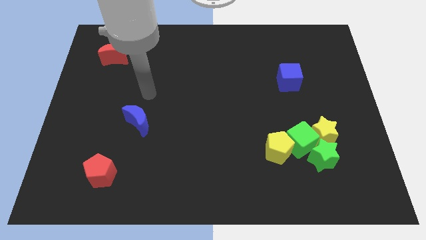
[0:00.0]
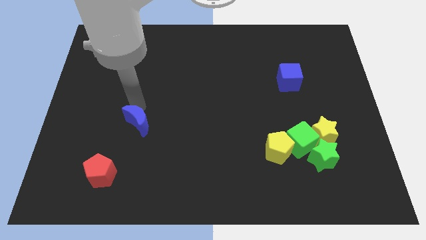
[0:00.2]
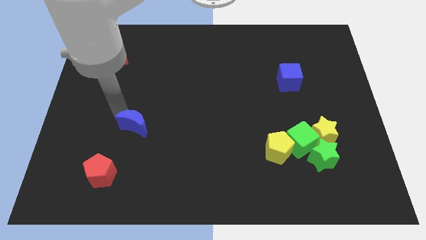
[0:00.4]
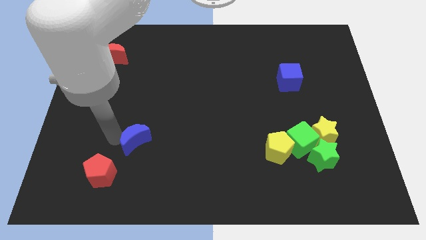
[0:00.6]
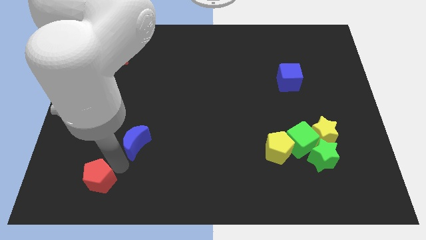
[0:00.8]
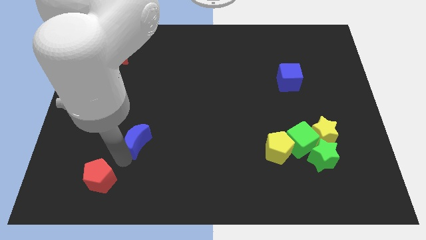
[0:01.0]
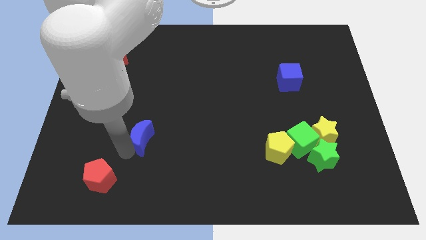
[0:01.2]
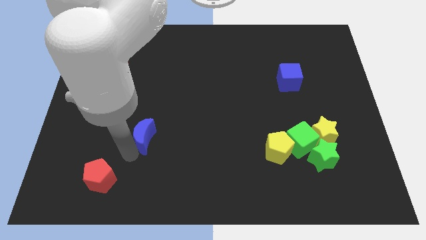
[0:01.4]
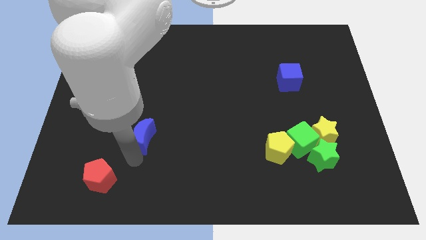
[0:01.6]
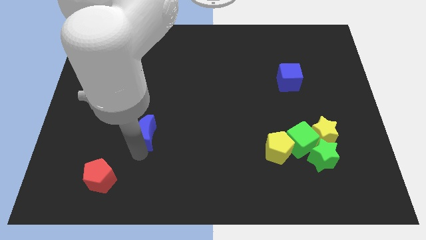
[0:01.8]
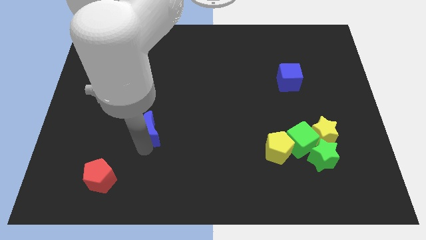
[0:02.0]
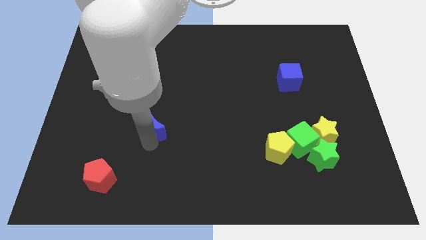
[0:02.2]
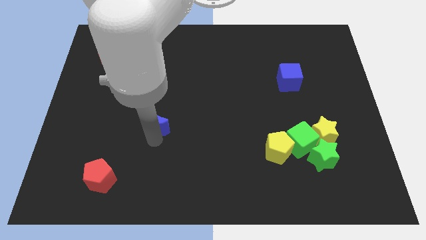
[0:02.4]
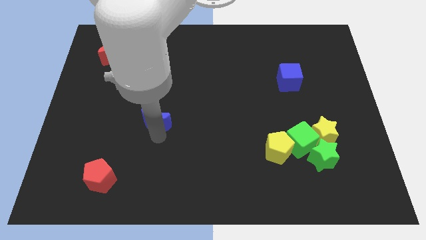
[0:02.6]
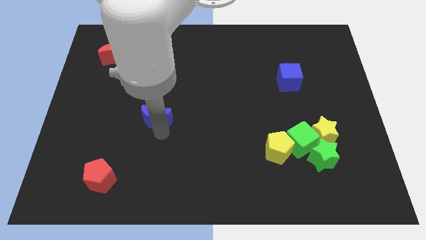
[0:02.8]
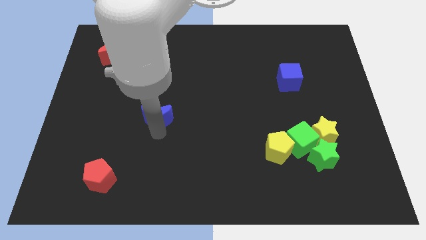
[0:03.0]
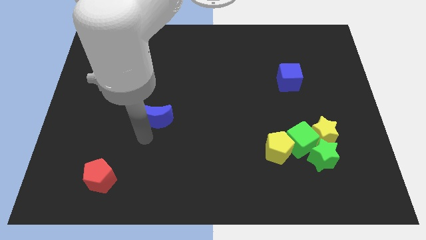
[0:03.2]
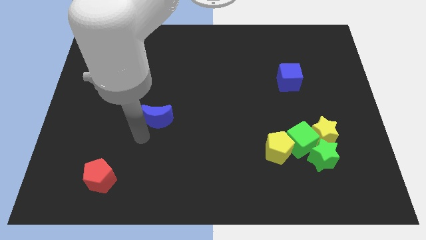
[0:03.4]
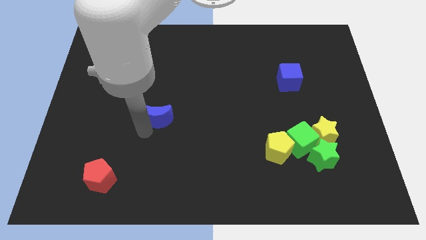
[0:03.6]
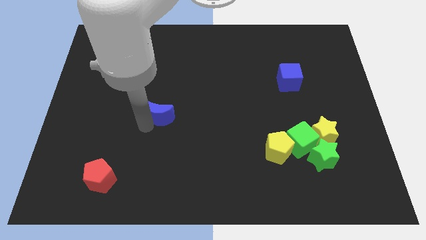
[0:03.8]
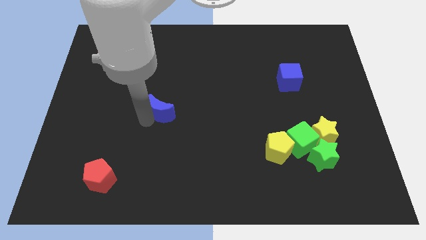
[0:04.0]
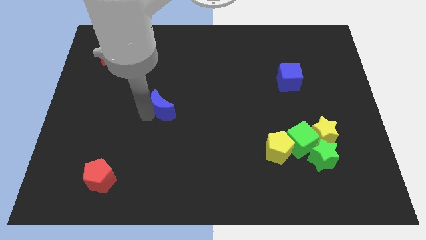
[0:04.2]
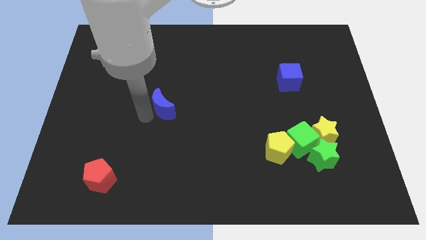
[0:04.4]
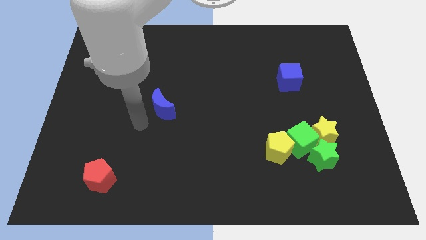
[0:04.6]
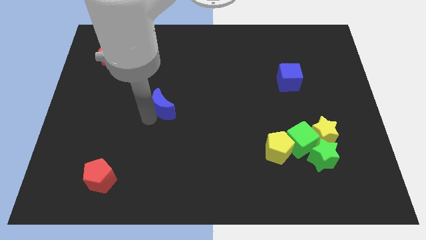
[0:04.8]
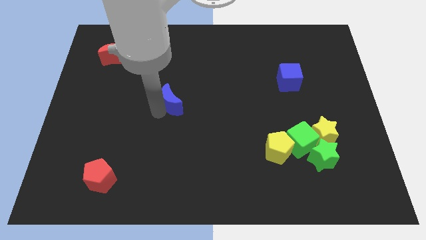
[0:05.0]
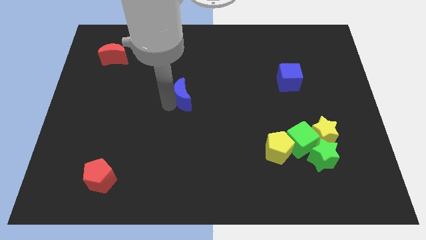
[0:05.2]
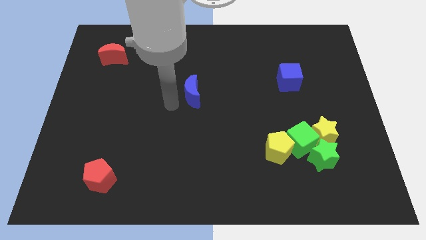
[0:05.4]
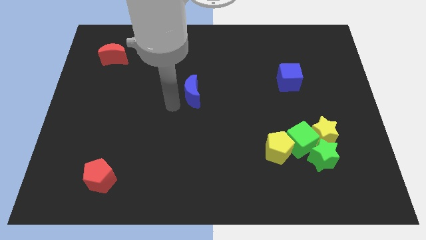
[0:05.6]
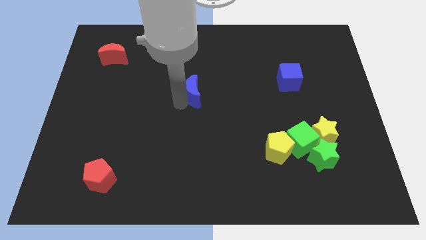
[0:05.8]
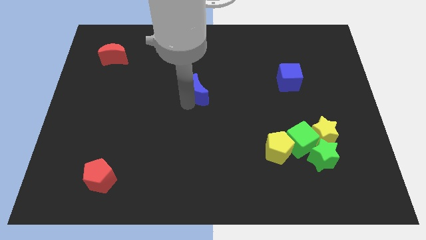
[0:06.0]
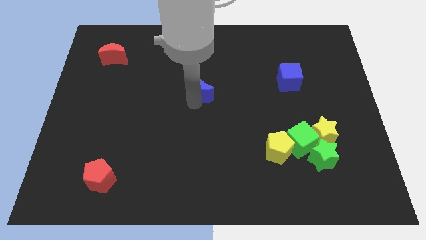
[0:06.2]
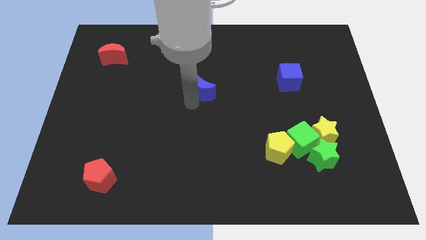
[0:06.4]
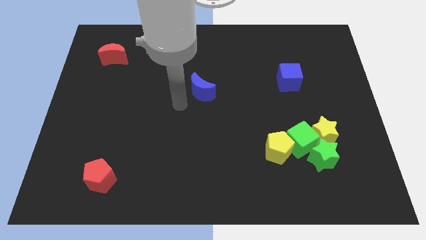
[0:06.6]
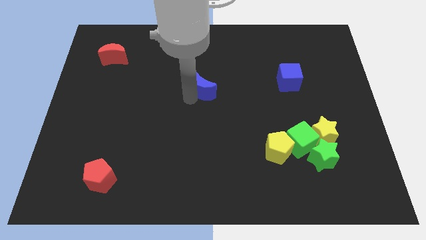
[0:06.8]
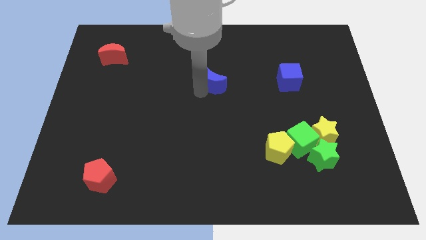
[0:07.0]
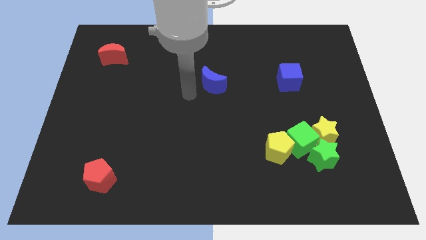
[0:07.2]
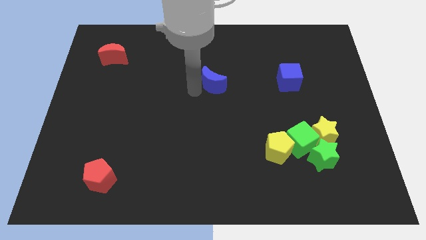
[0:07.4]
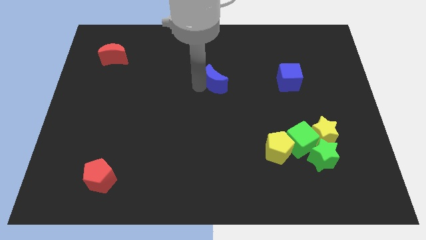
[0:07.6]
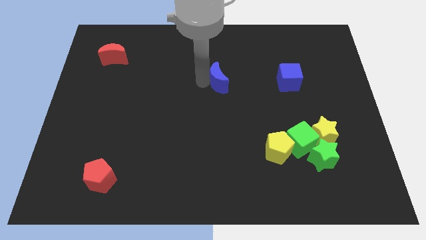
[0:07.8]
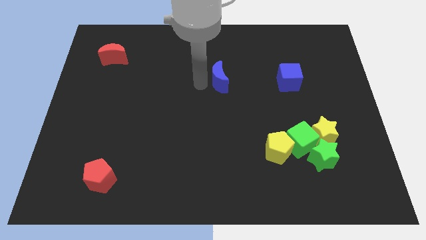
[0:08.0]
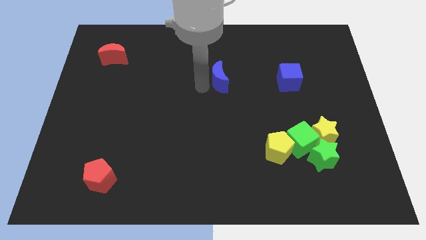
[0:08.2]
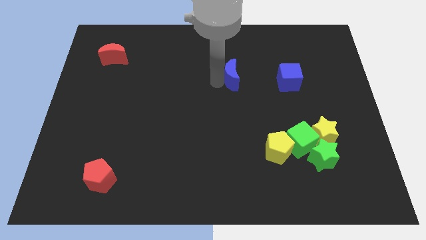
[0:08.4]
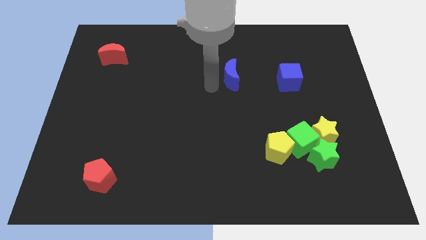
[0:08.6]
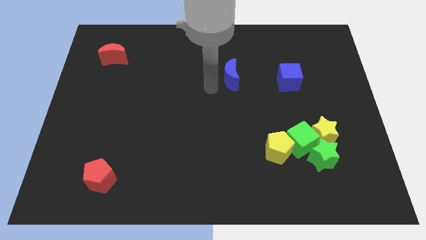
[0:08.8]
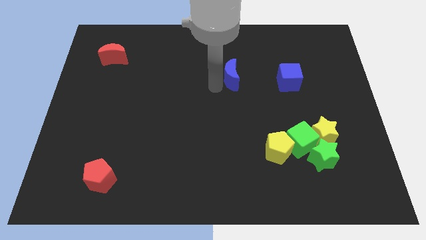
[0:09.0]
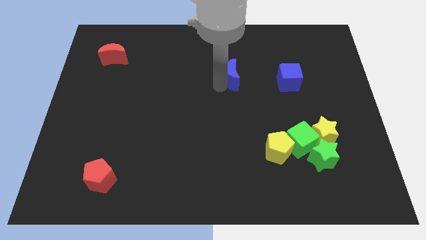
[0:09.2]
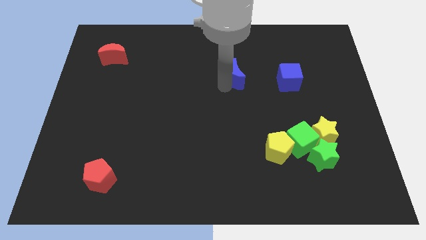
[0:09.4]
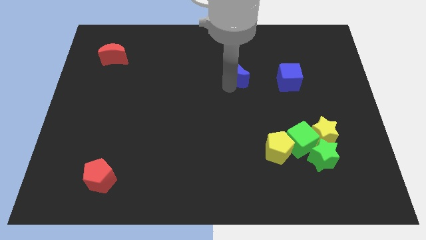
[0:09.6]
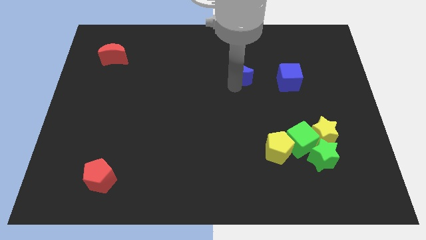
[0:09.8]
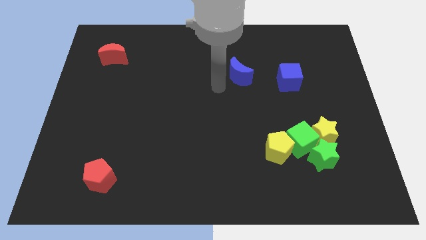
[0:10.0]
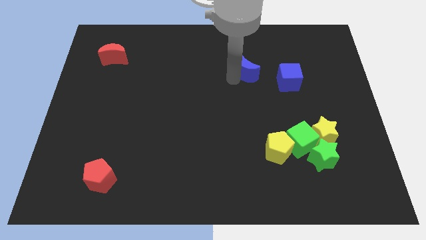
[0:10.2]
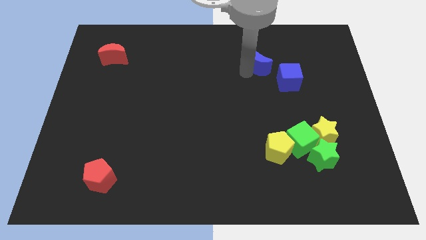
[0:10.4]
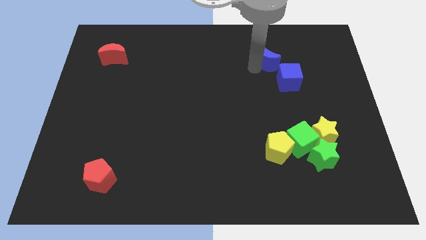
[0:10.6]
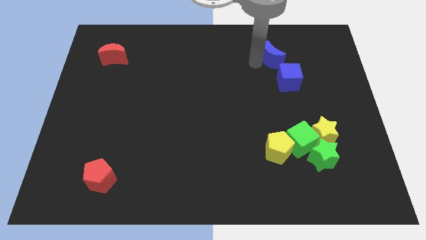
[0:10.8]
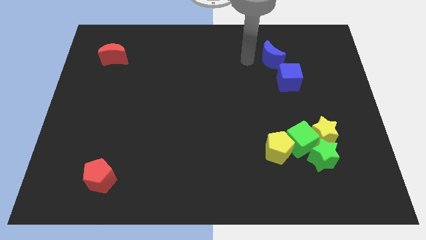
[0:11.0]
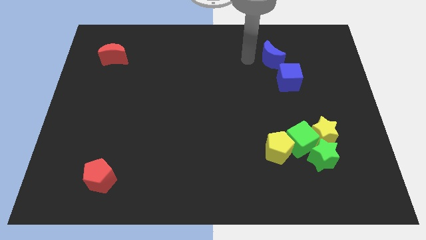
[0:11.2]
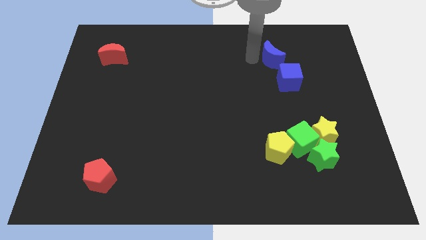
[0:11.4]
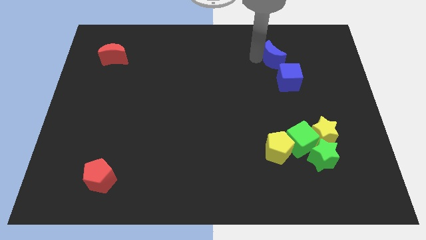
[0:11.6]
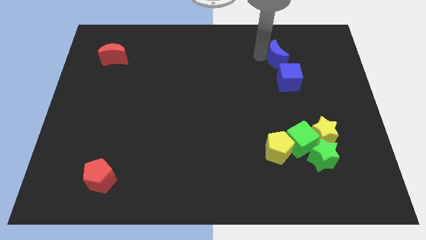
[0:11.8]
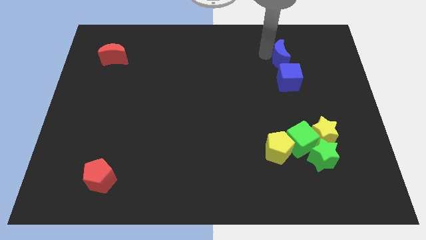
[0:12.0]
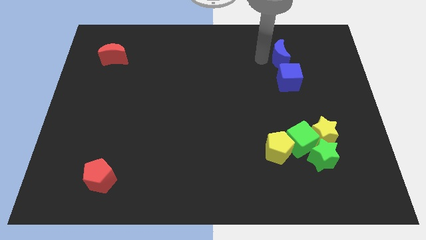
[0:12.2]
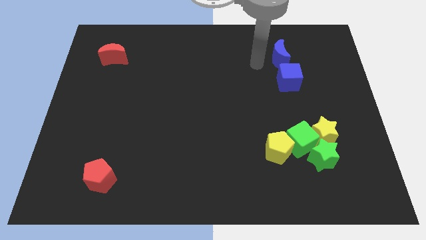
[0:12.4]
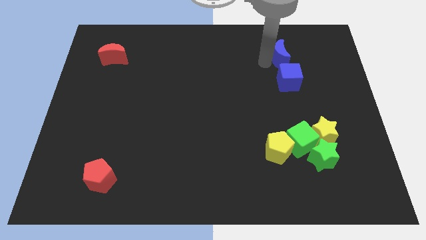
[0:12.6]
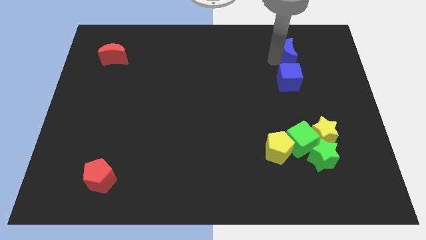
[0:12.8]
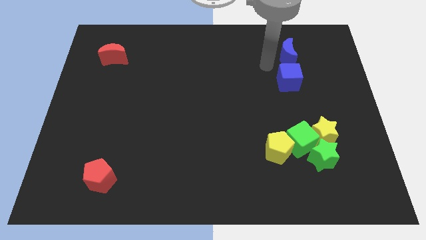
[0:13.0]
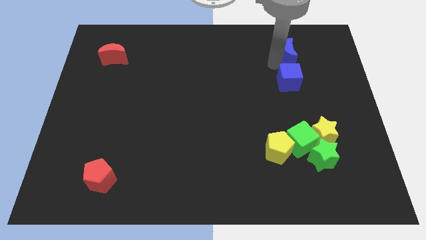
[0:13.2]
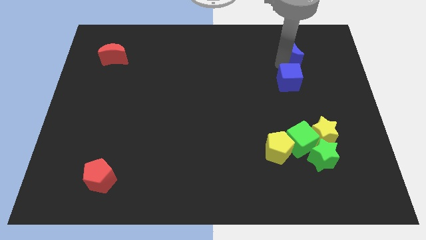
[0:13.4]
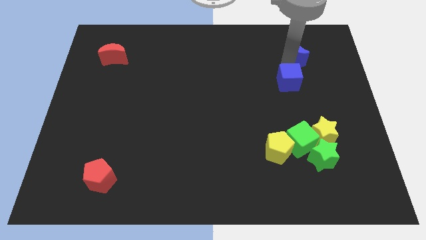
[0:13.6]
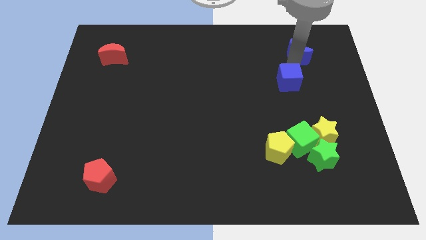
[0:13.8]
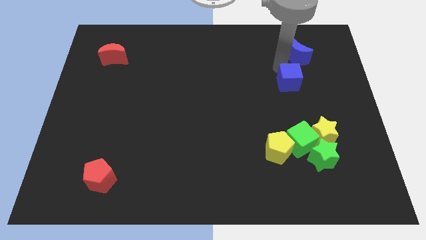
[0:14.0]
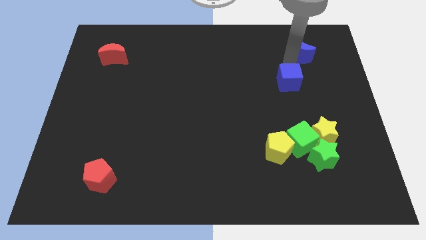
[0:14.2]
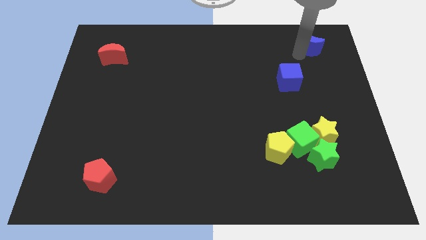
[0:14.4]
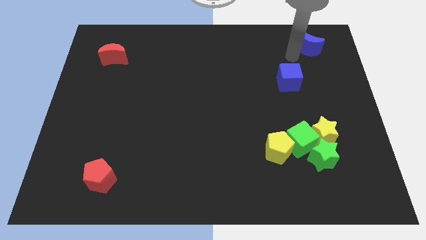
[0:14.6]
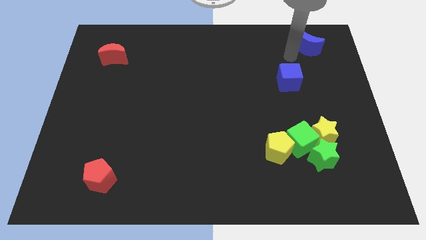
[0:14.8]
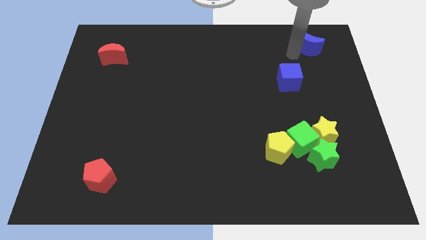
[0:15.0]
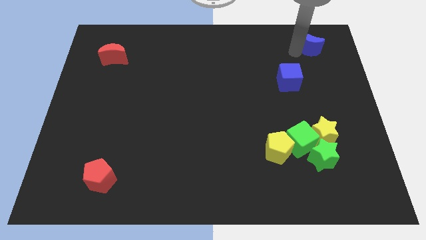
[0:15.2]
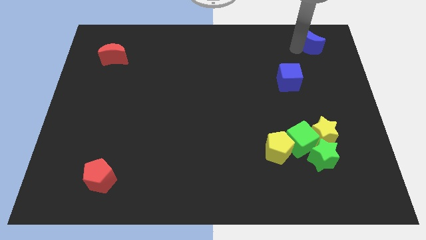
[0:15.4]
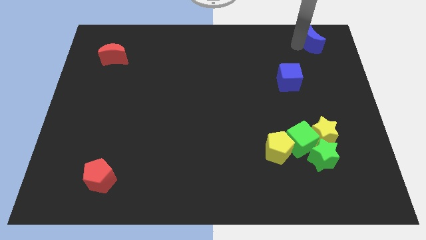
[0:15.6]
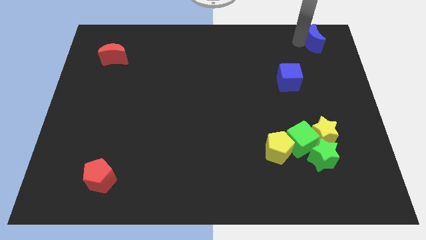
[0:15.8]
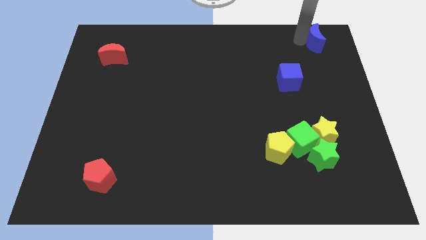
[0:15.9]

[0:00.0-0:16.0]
put the blue moon to the top right corner
